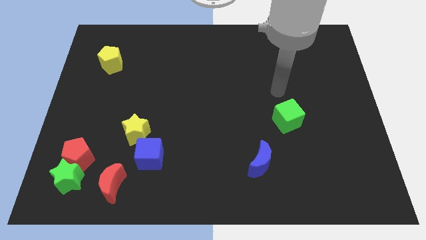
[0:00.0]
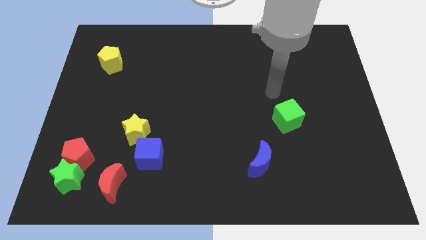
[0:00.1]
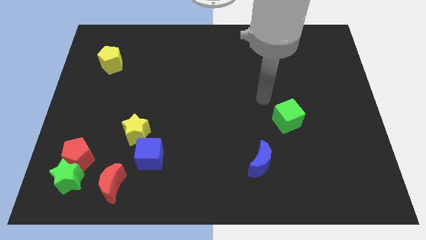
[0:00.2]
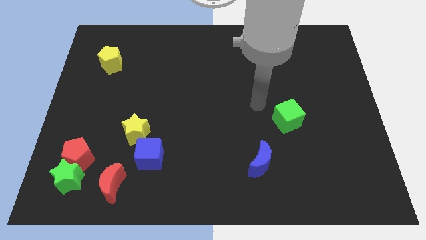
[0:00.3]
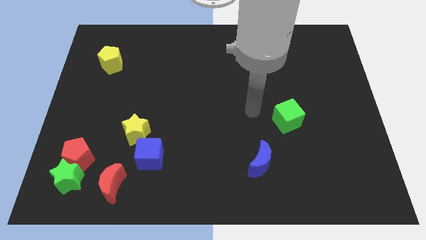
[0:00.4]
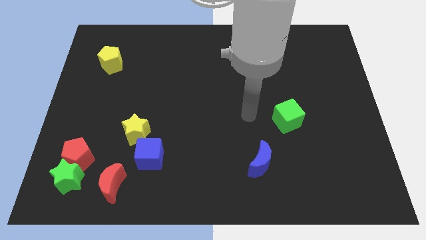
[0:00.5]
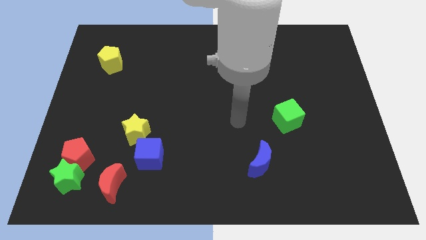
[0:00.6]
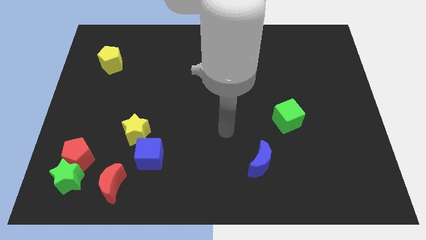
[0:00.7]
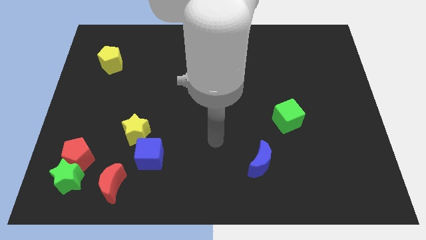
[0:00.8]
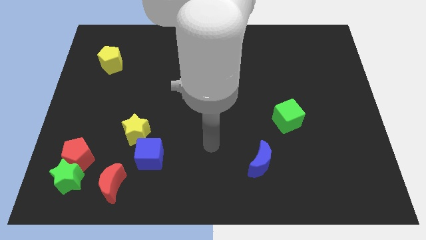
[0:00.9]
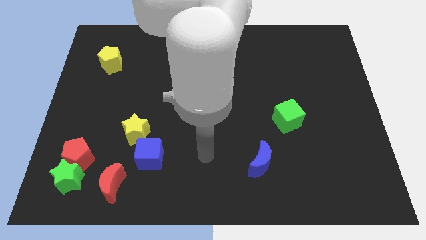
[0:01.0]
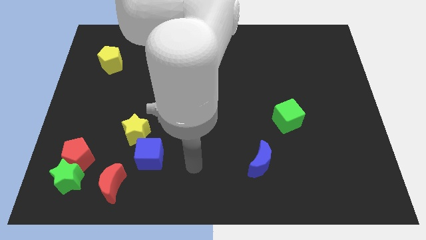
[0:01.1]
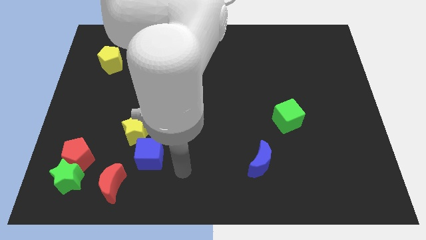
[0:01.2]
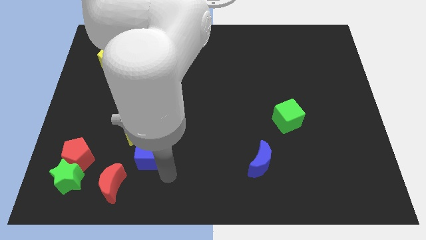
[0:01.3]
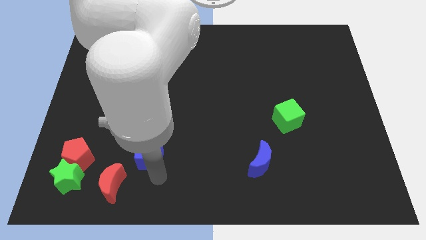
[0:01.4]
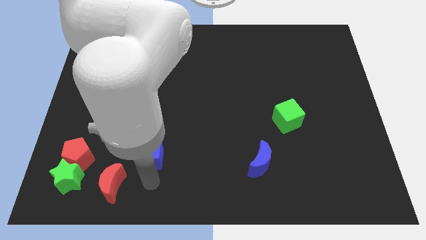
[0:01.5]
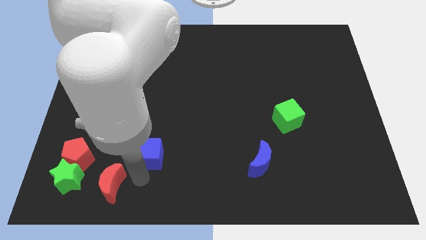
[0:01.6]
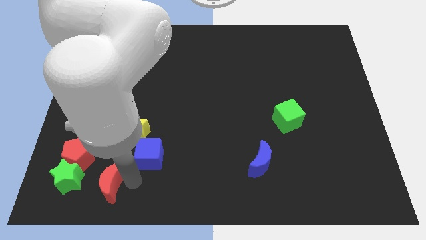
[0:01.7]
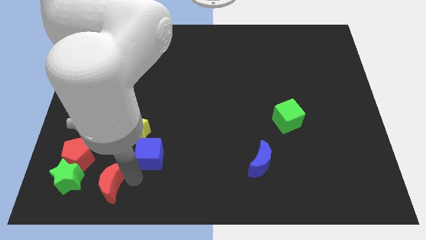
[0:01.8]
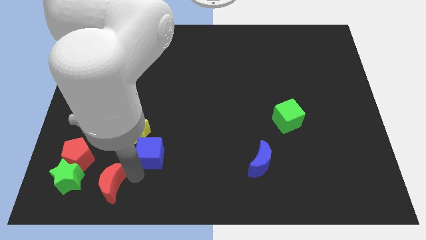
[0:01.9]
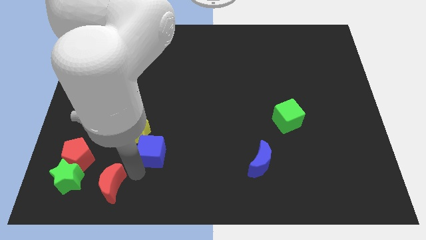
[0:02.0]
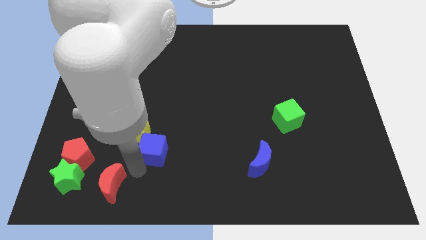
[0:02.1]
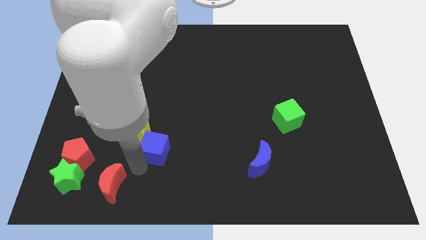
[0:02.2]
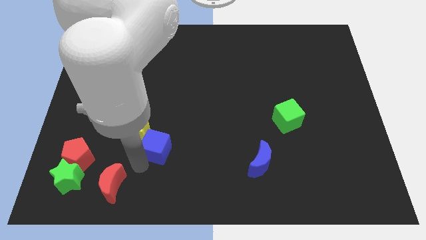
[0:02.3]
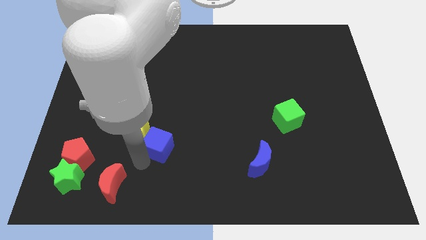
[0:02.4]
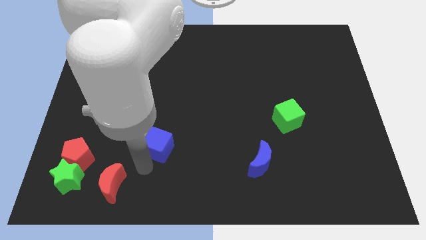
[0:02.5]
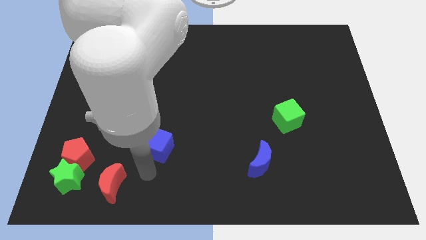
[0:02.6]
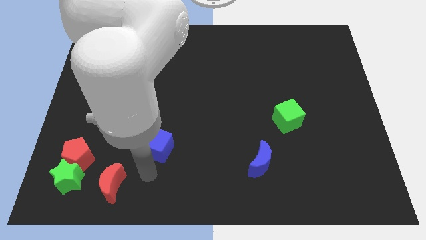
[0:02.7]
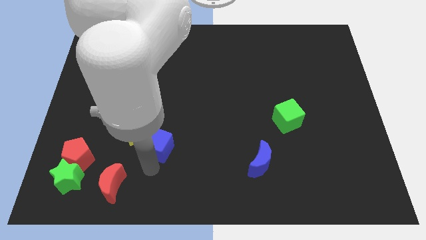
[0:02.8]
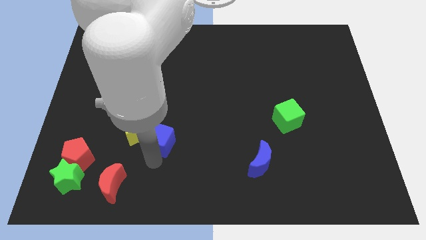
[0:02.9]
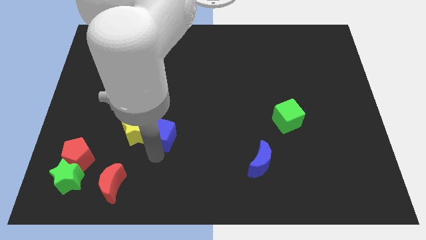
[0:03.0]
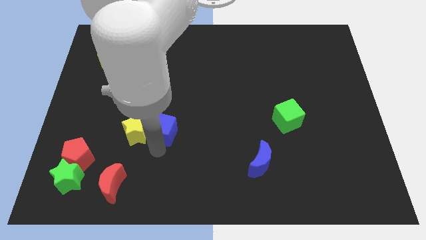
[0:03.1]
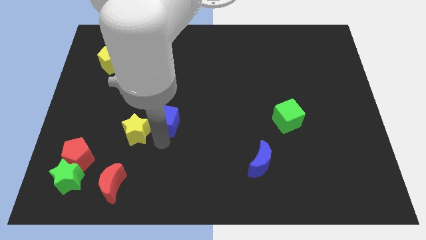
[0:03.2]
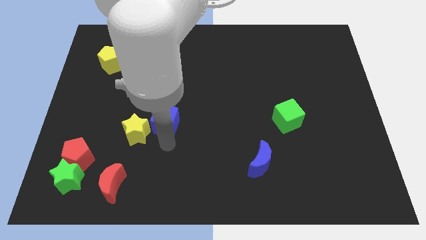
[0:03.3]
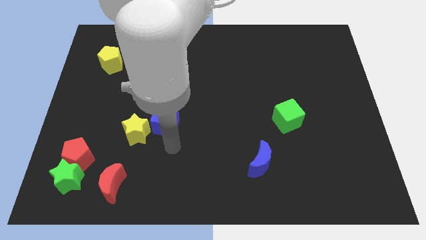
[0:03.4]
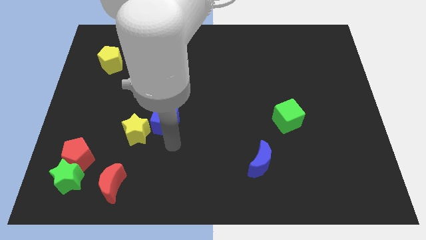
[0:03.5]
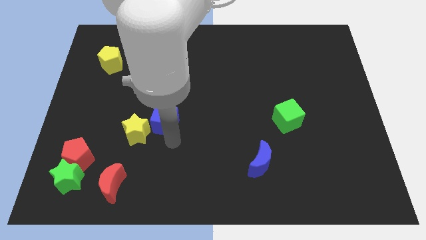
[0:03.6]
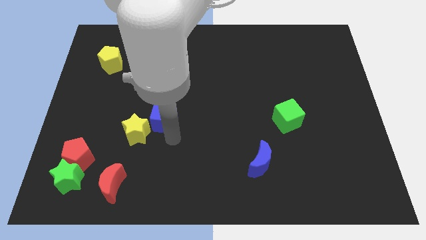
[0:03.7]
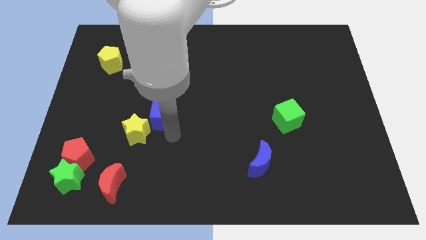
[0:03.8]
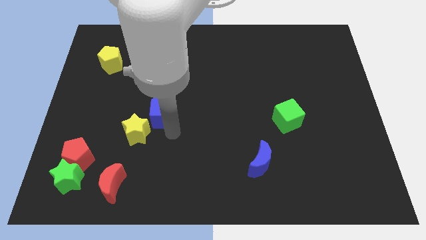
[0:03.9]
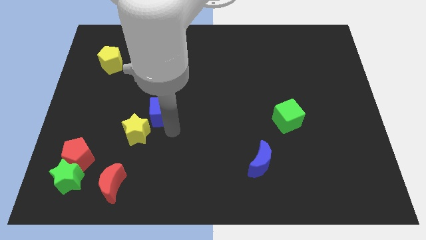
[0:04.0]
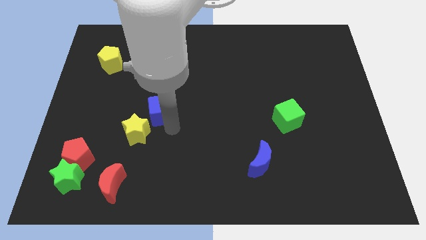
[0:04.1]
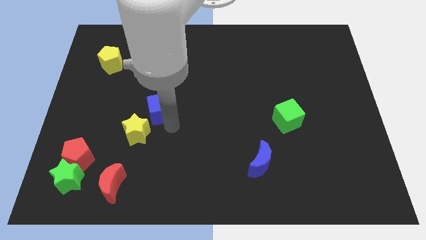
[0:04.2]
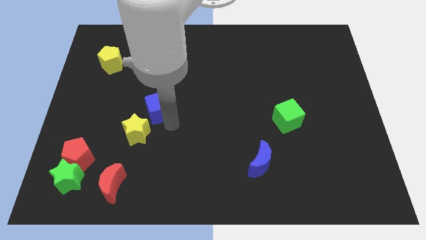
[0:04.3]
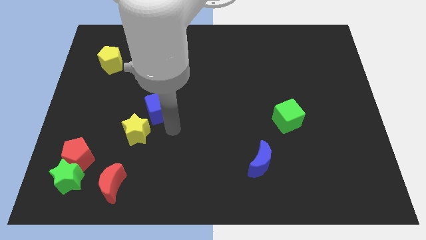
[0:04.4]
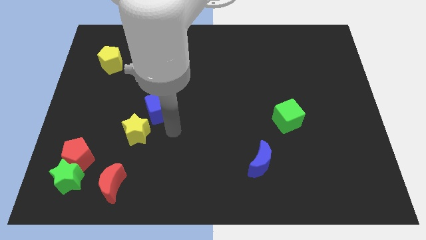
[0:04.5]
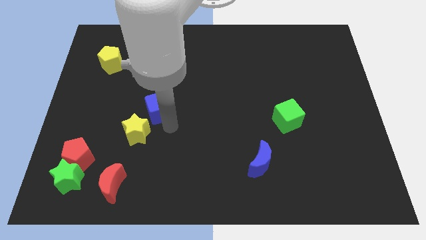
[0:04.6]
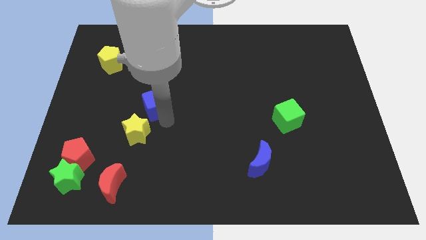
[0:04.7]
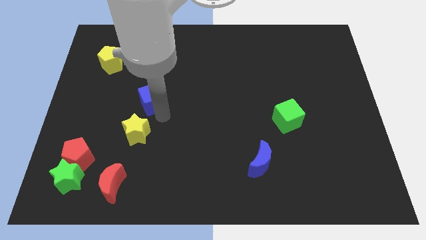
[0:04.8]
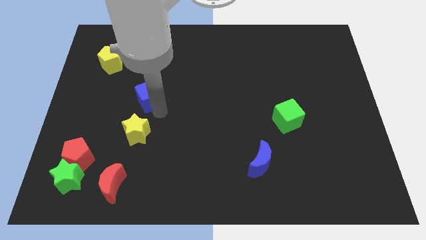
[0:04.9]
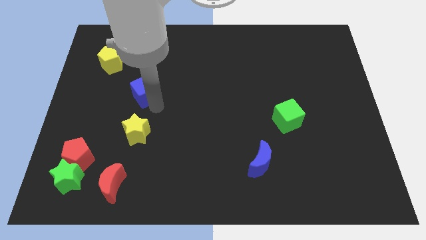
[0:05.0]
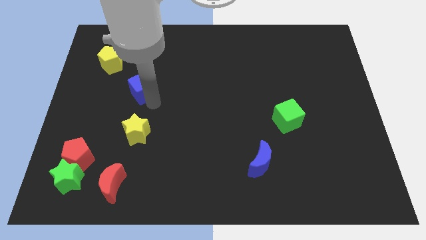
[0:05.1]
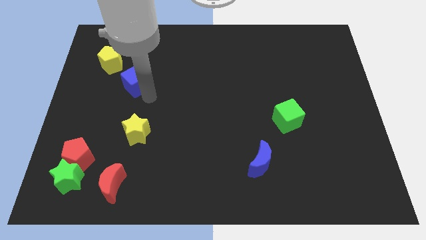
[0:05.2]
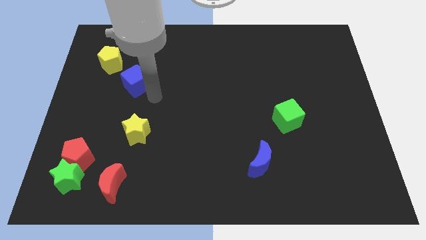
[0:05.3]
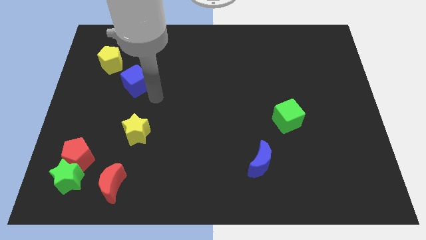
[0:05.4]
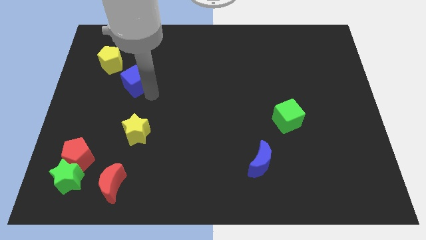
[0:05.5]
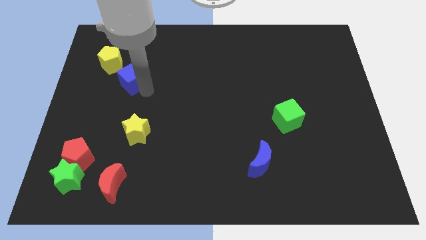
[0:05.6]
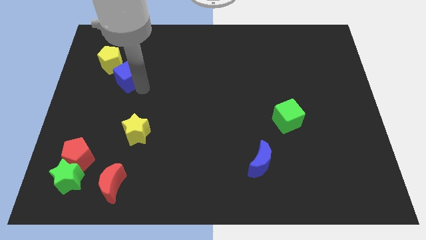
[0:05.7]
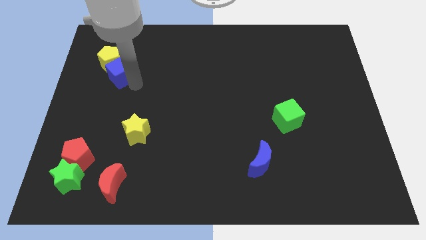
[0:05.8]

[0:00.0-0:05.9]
push the blue cube next to the yellow pentagon

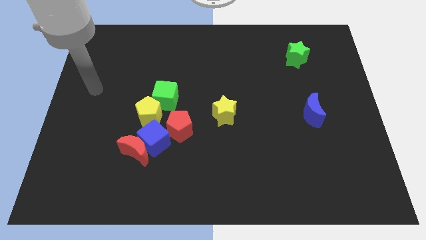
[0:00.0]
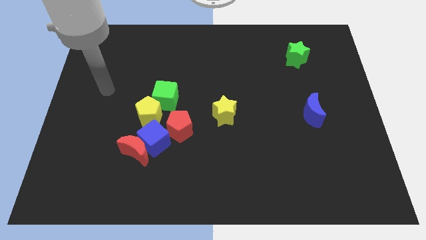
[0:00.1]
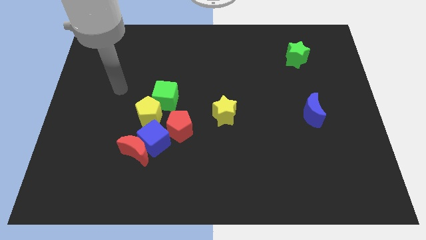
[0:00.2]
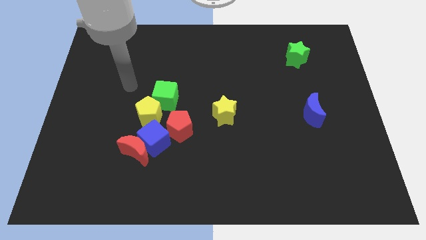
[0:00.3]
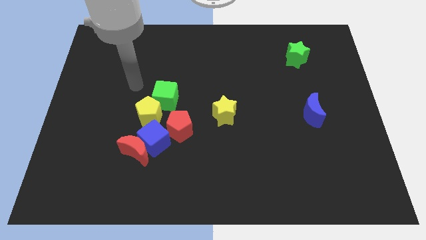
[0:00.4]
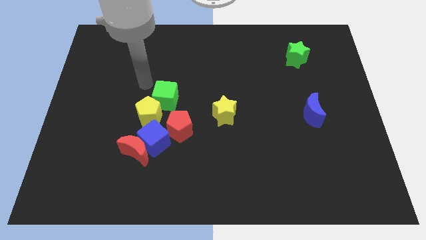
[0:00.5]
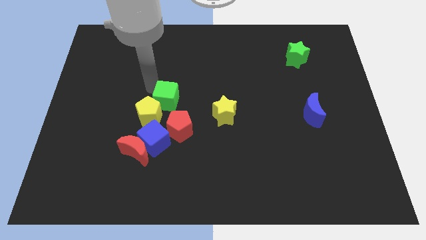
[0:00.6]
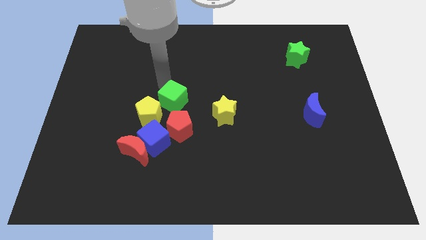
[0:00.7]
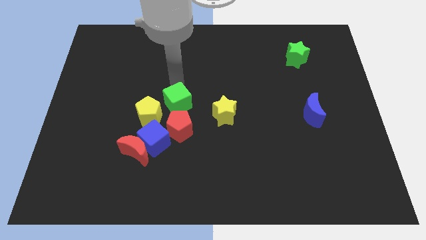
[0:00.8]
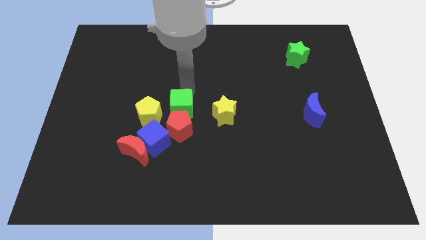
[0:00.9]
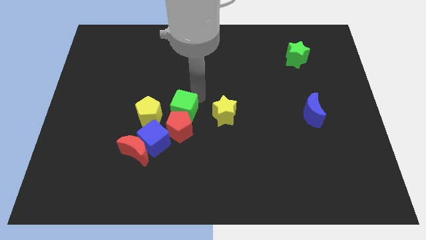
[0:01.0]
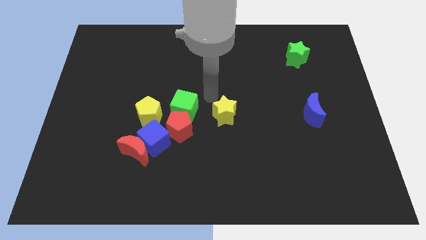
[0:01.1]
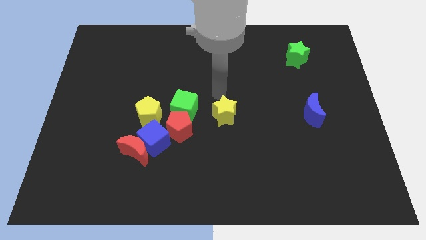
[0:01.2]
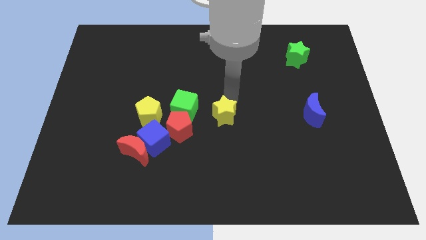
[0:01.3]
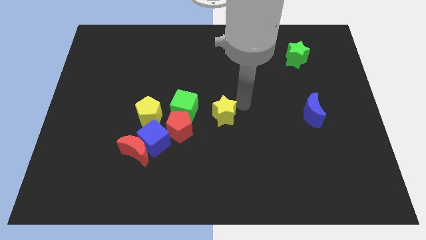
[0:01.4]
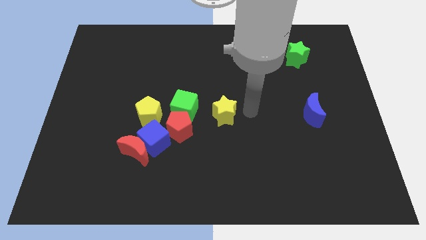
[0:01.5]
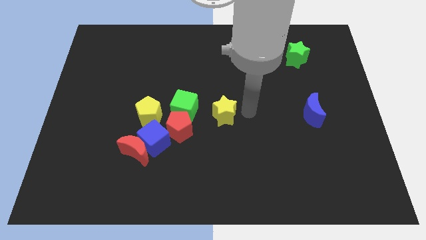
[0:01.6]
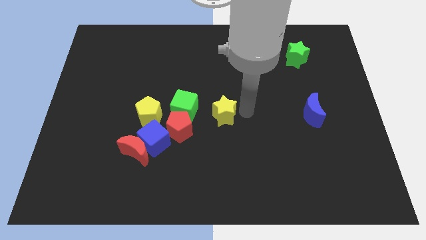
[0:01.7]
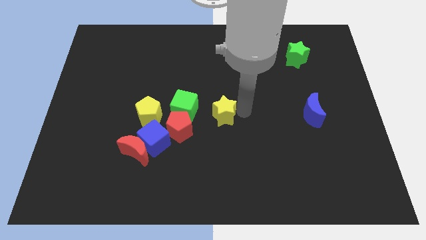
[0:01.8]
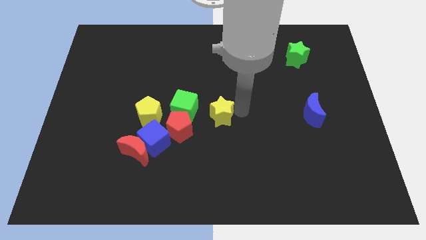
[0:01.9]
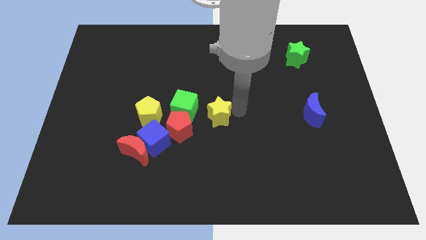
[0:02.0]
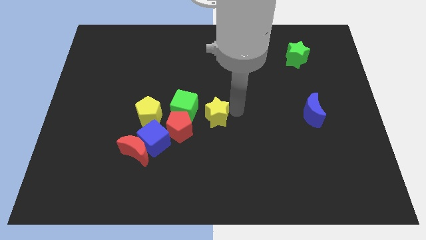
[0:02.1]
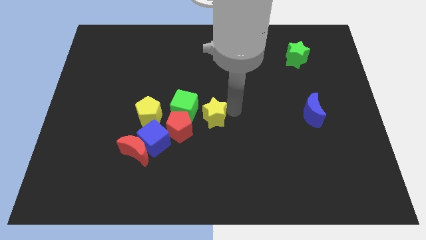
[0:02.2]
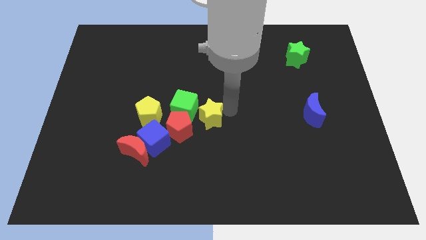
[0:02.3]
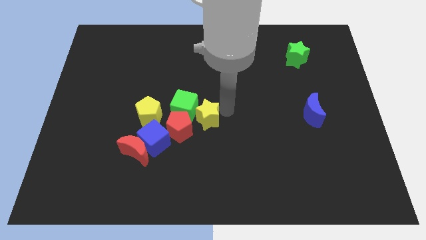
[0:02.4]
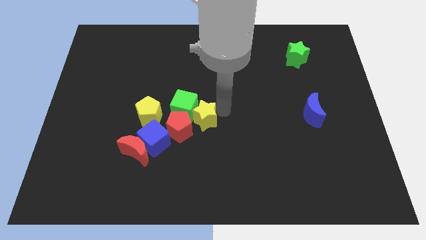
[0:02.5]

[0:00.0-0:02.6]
push the yellow star towards the red pentagon
